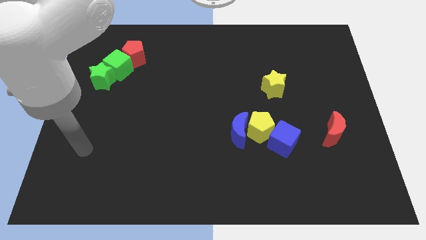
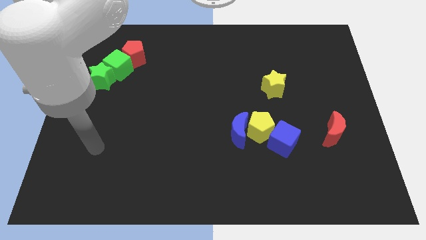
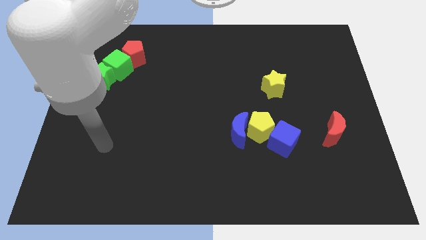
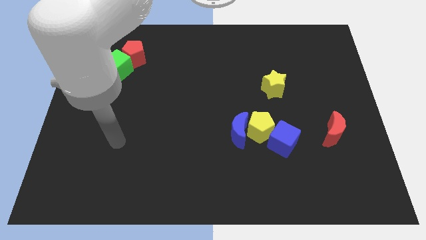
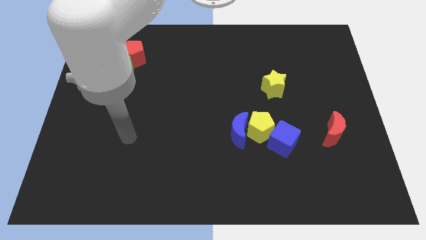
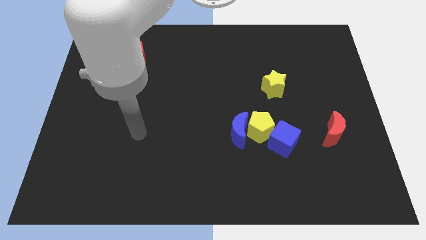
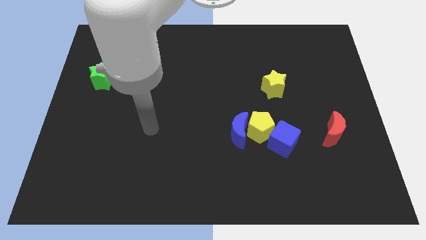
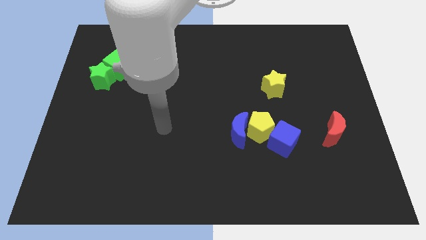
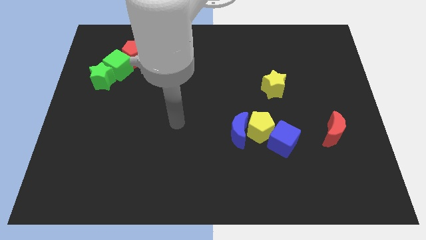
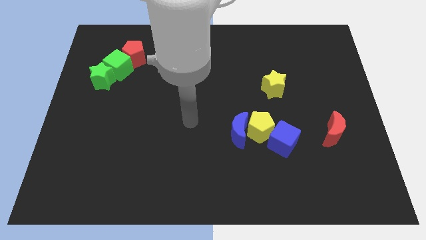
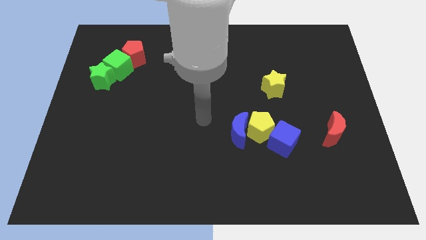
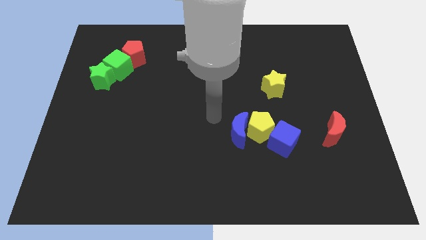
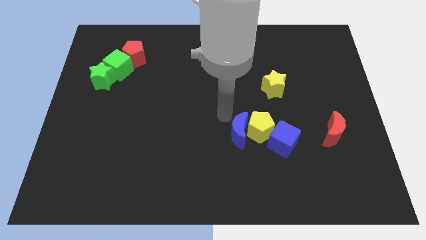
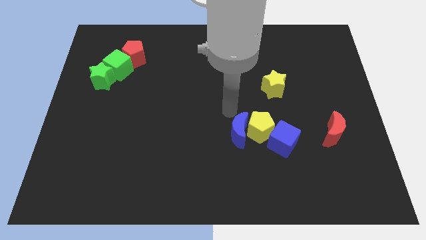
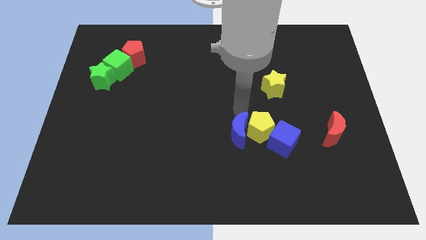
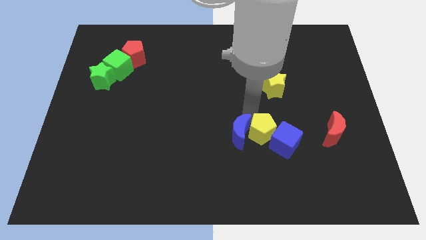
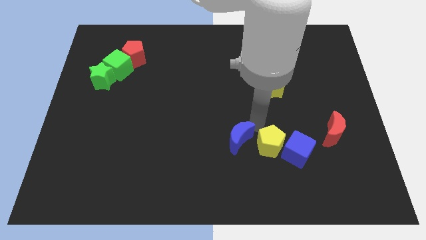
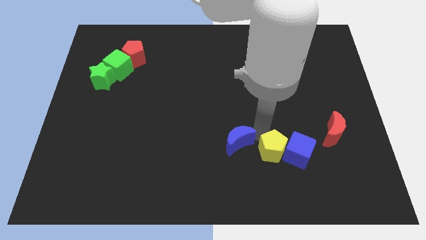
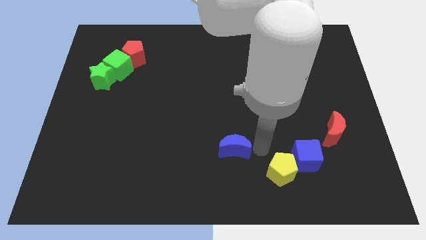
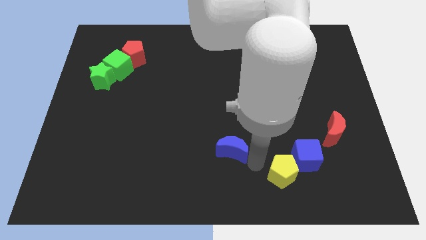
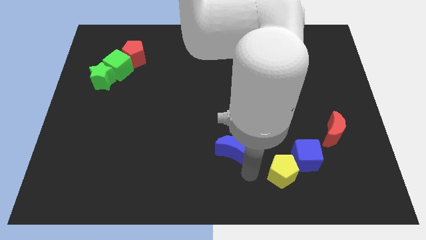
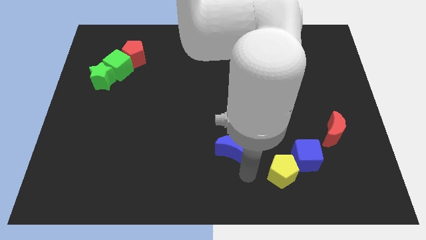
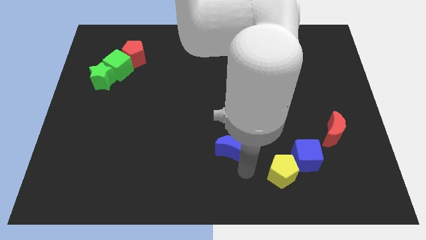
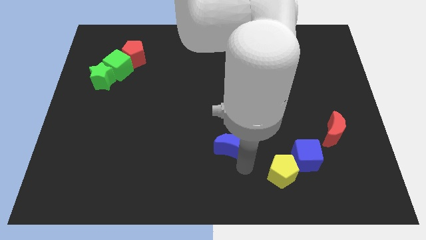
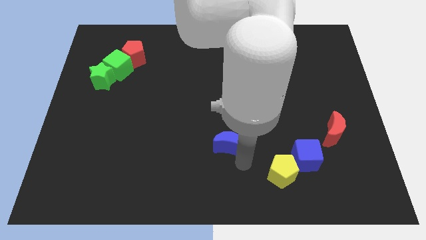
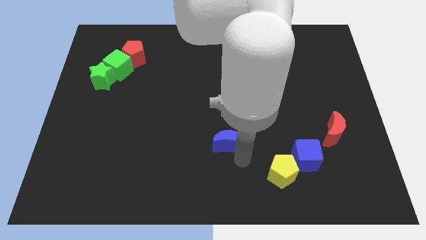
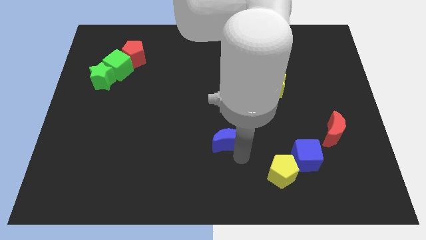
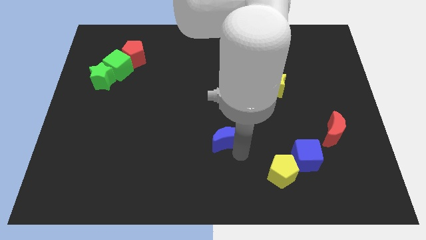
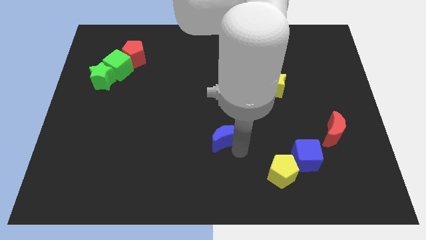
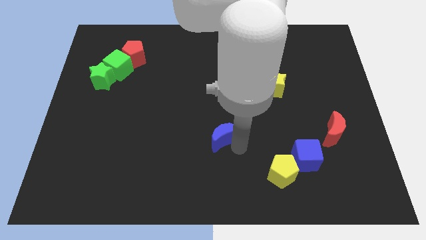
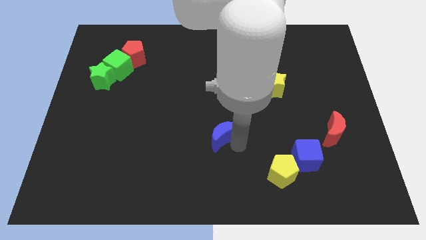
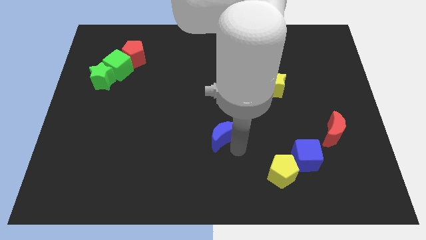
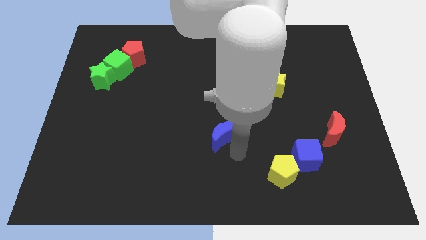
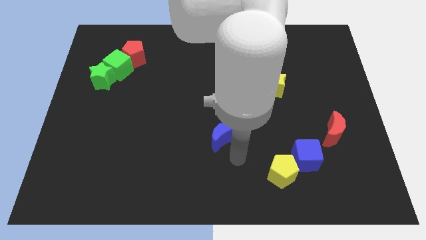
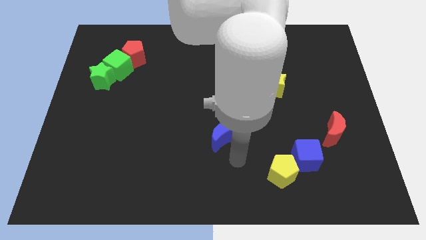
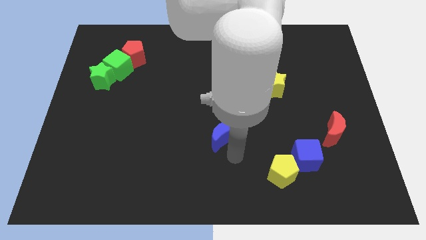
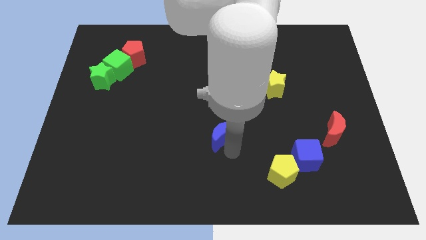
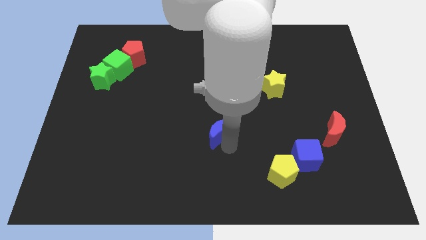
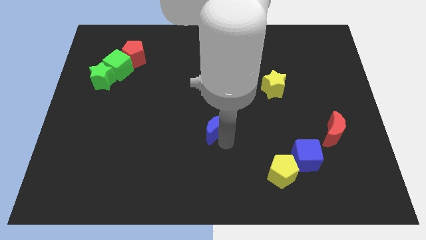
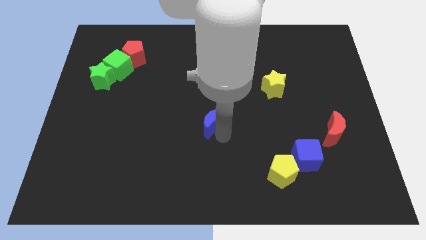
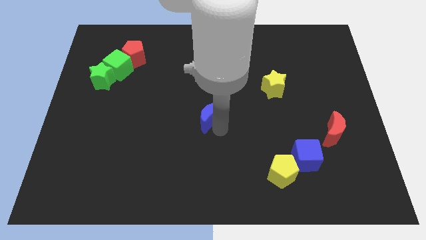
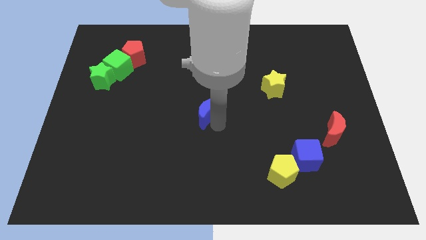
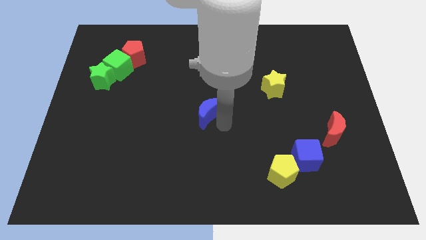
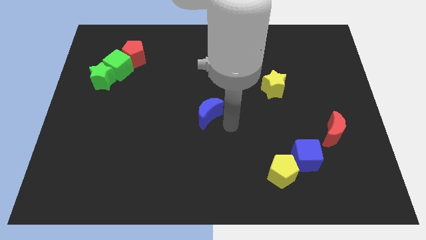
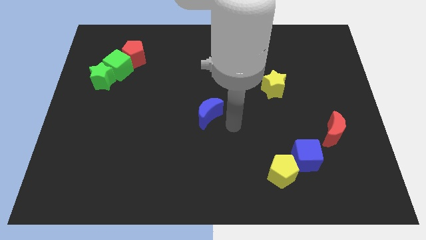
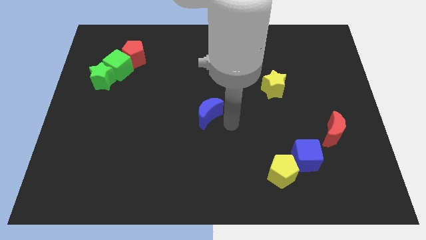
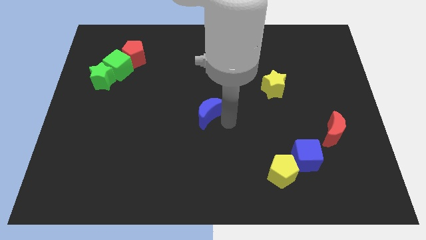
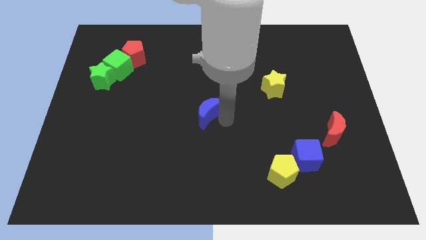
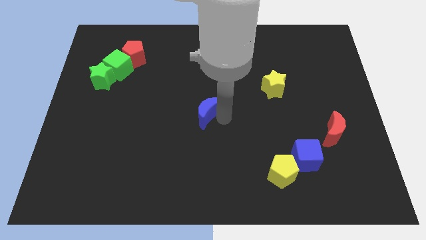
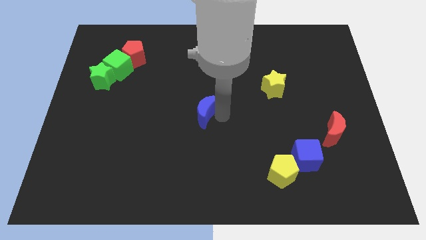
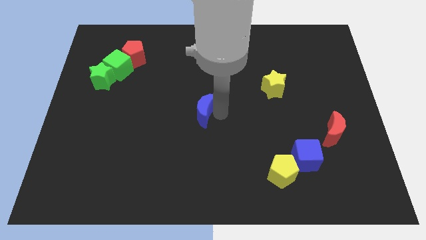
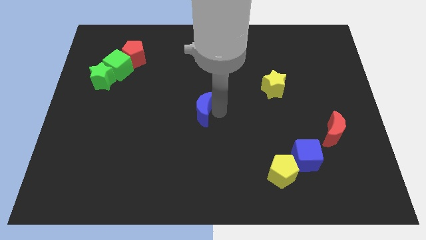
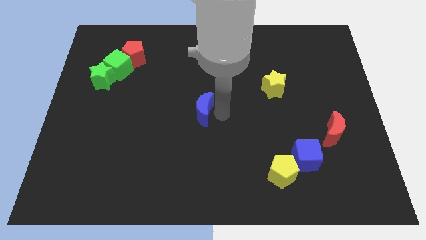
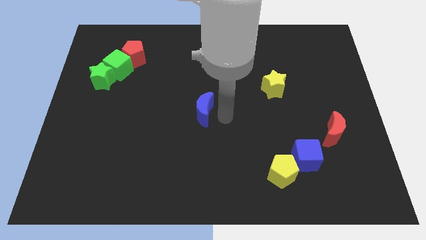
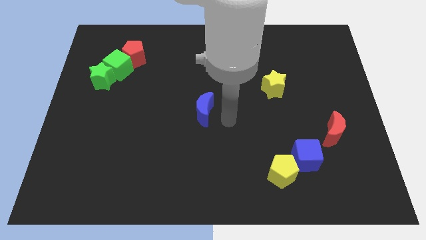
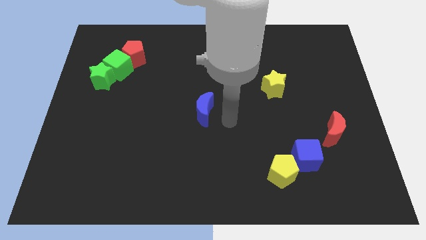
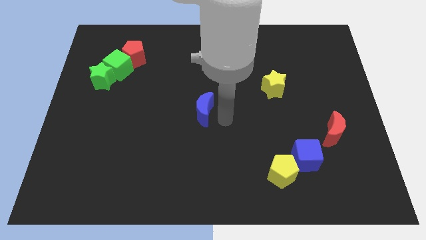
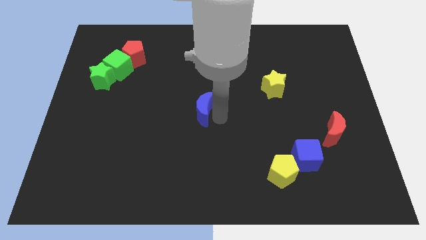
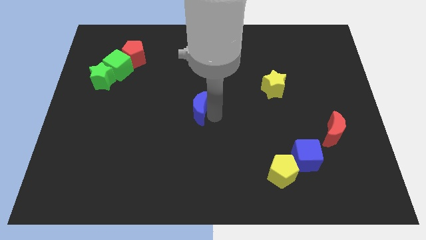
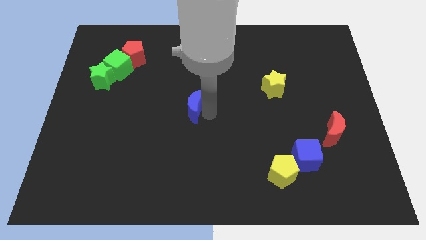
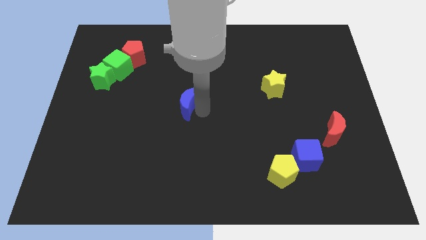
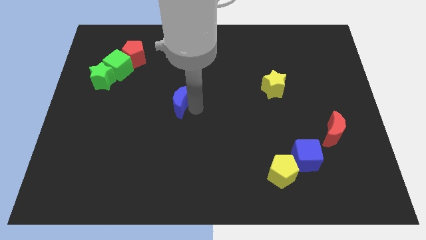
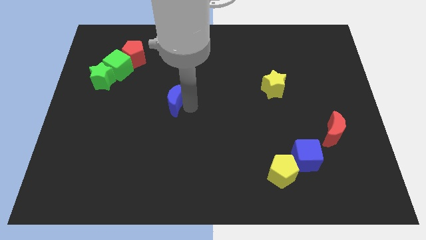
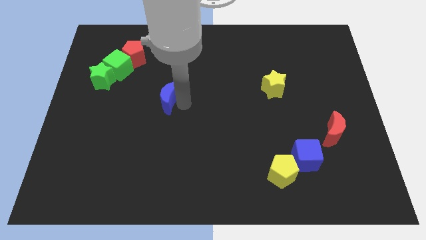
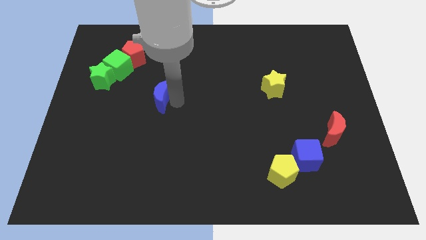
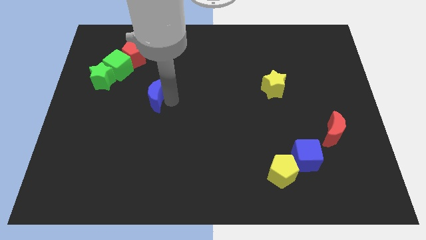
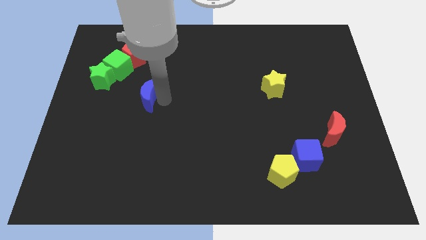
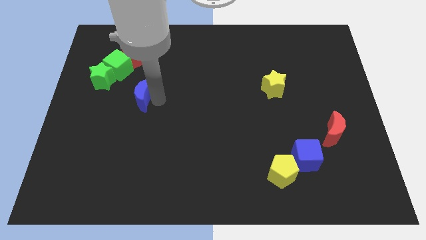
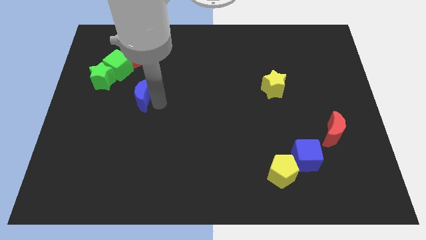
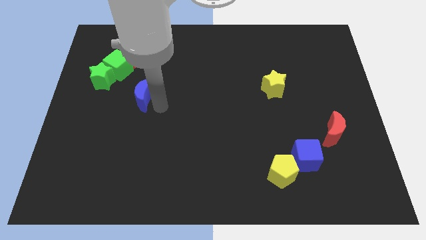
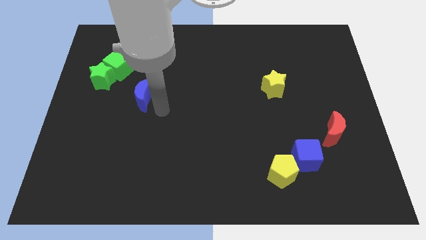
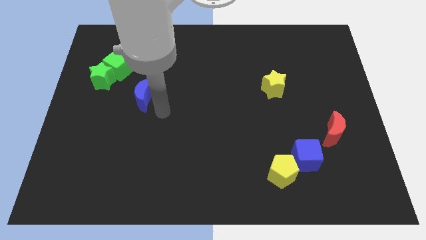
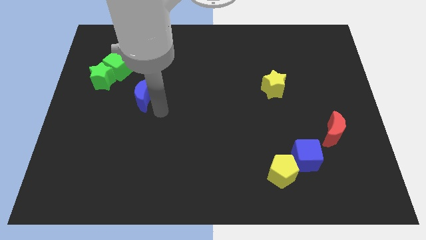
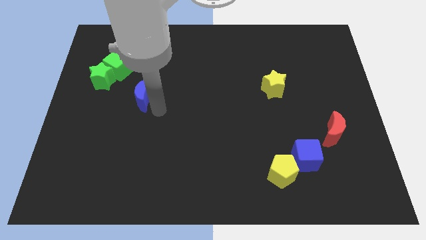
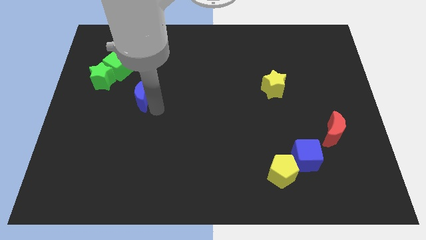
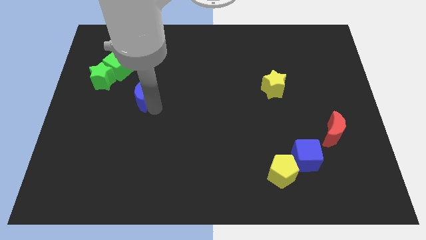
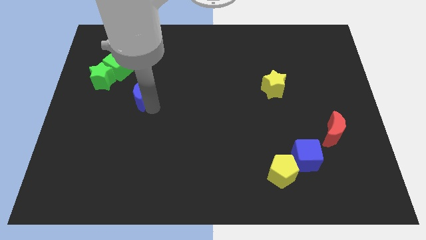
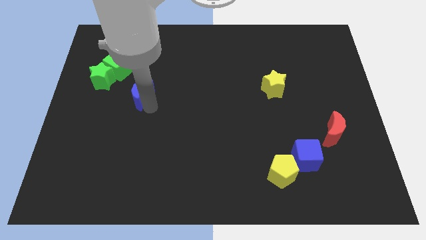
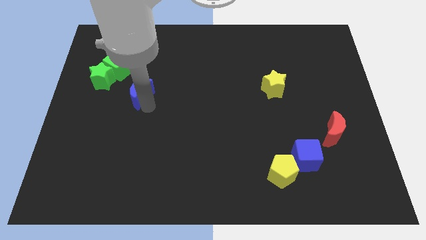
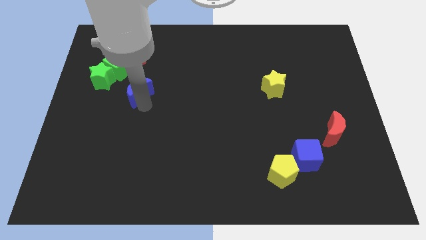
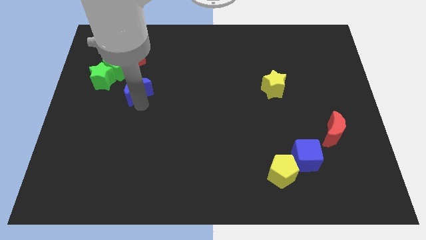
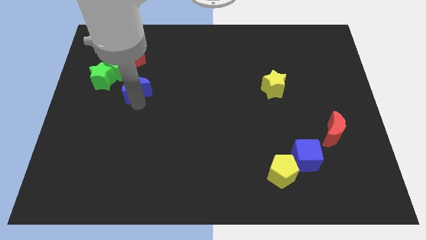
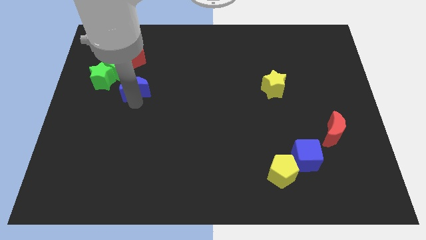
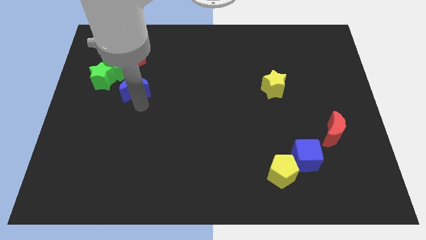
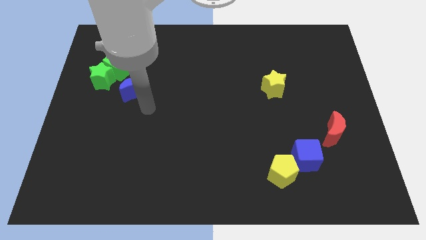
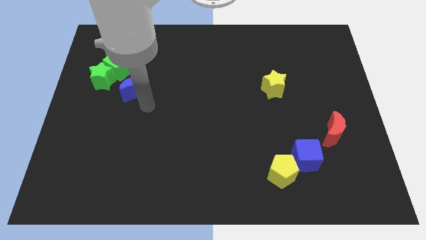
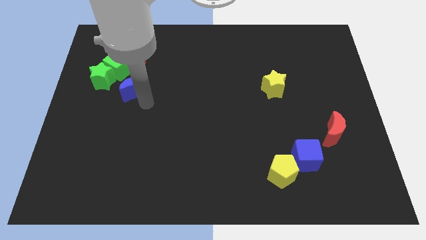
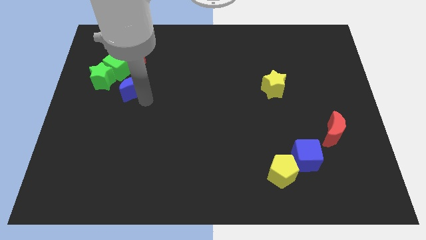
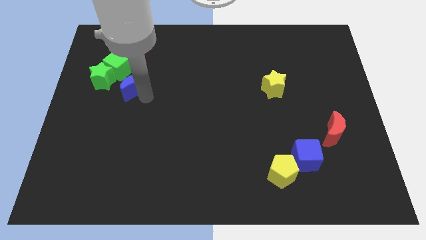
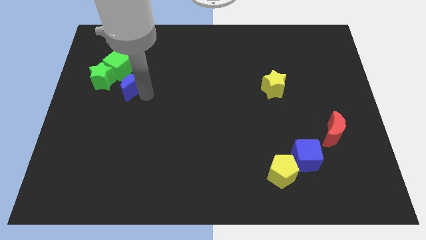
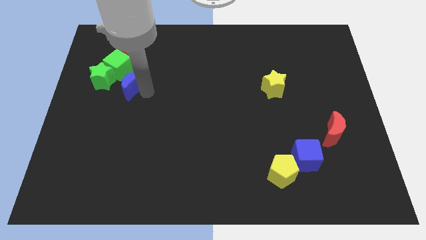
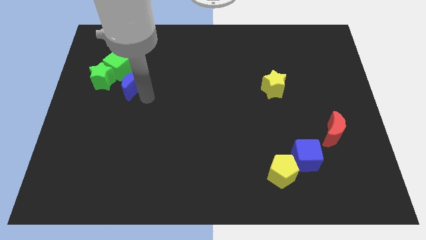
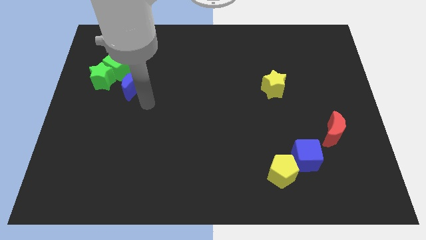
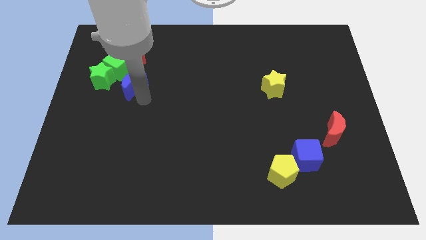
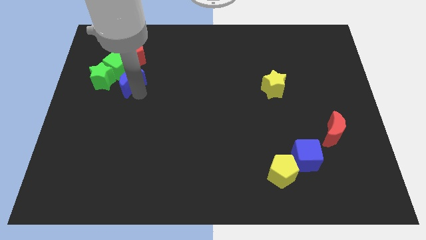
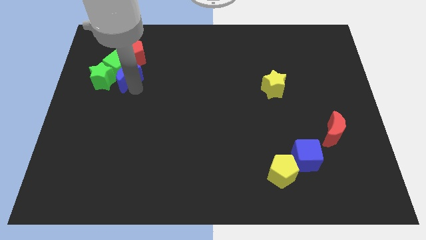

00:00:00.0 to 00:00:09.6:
push the blue moon close to the green cube
